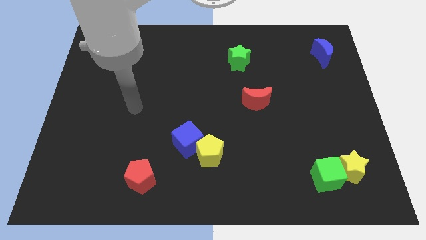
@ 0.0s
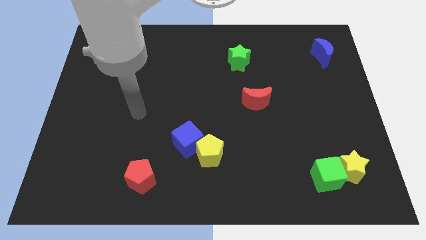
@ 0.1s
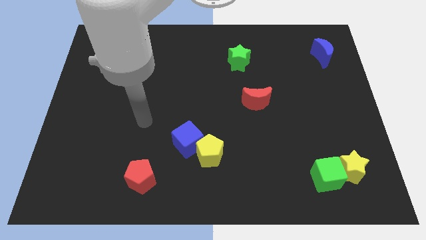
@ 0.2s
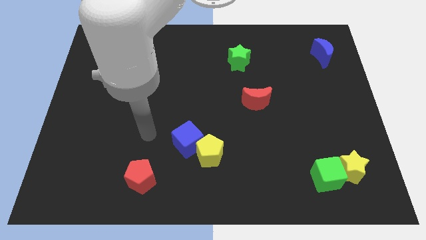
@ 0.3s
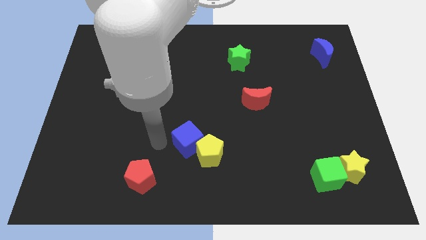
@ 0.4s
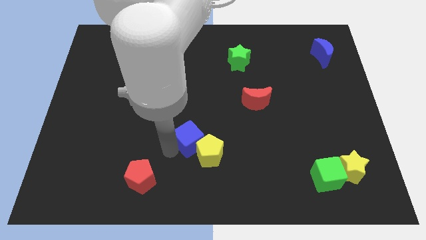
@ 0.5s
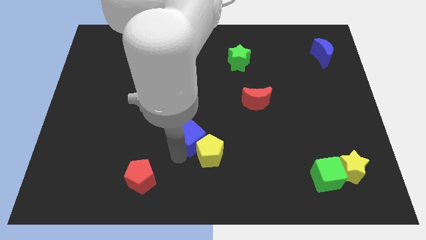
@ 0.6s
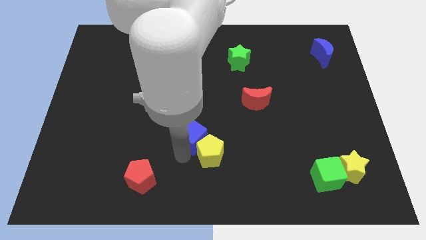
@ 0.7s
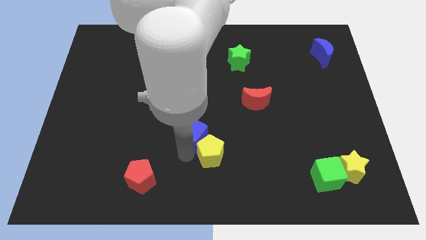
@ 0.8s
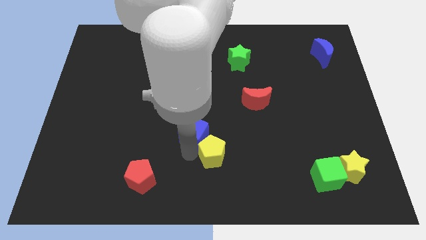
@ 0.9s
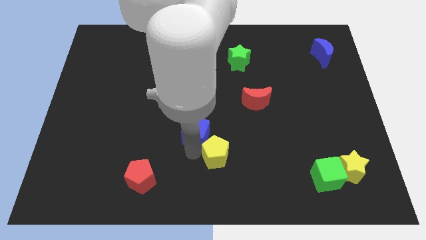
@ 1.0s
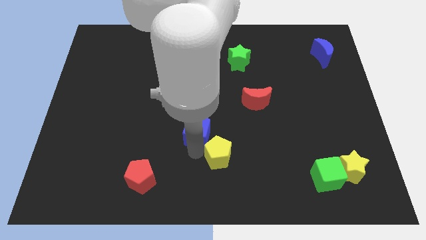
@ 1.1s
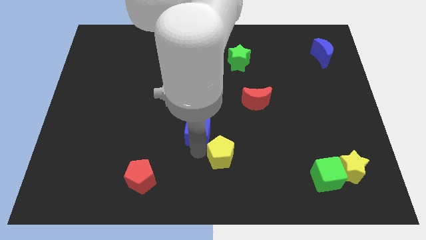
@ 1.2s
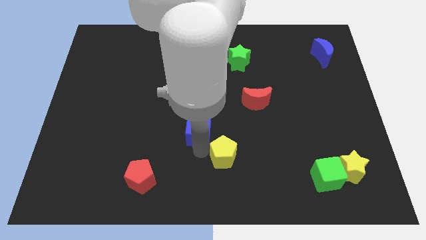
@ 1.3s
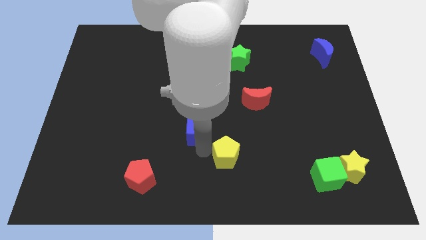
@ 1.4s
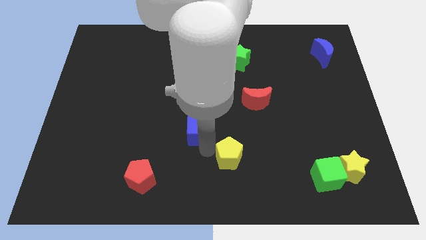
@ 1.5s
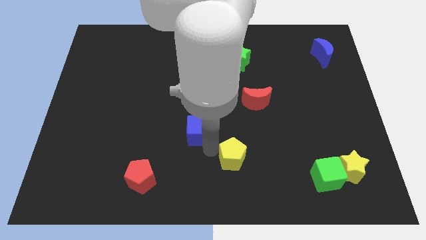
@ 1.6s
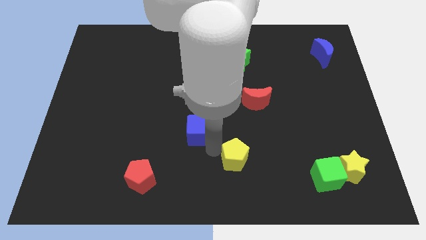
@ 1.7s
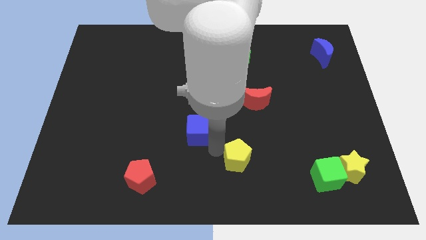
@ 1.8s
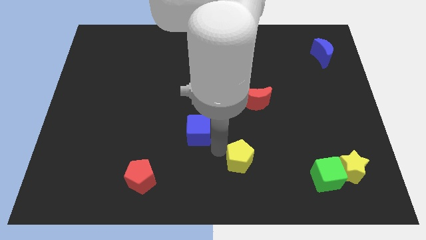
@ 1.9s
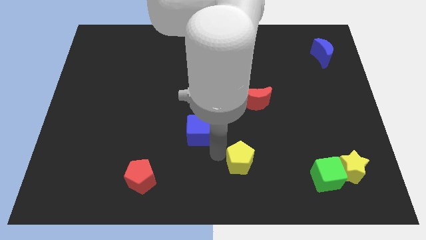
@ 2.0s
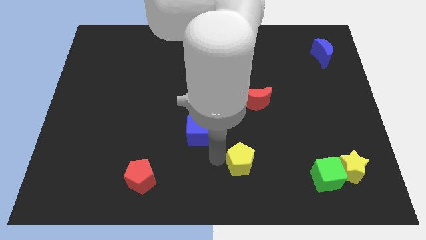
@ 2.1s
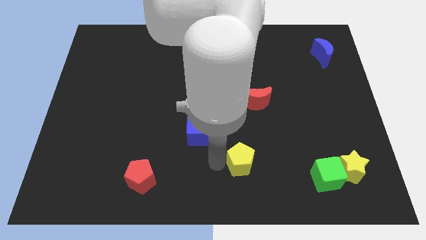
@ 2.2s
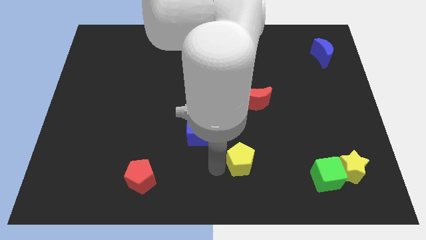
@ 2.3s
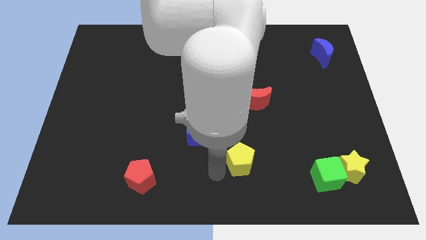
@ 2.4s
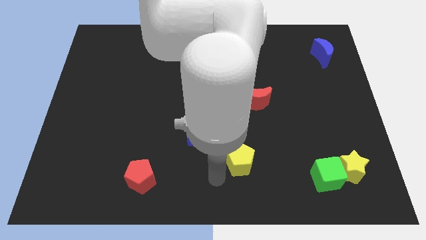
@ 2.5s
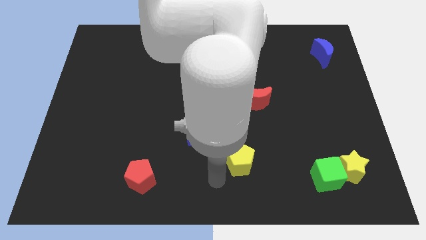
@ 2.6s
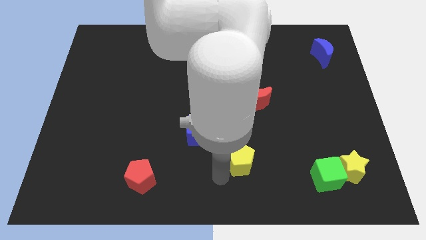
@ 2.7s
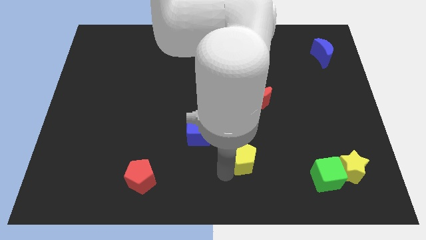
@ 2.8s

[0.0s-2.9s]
push the yellow pentagon to the right somewhat

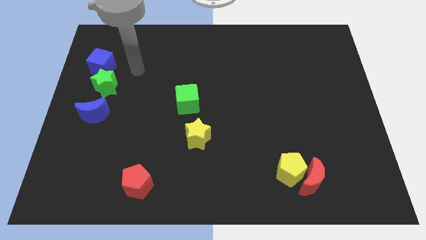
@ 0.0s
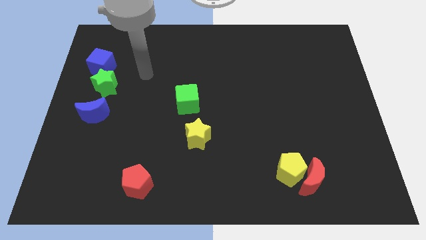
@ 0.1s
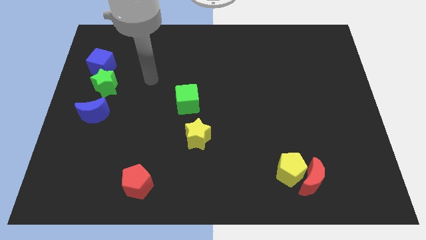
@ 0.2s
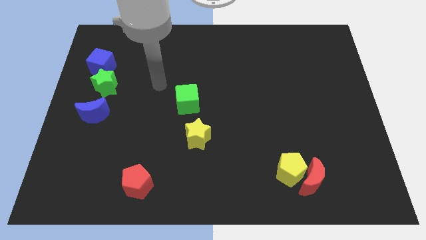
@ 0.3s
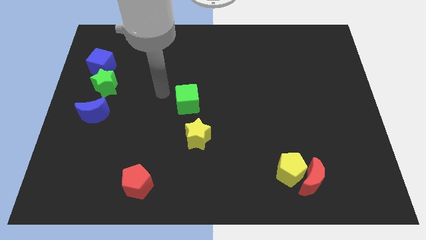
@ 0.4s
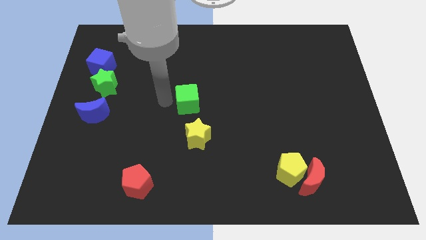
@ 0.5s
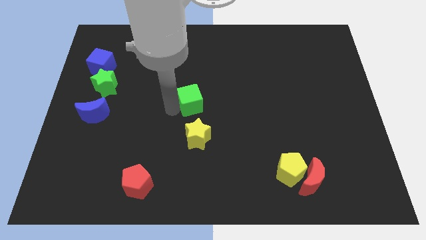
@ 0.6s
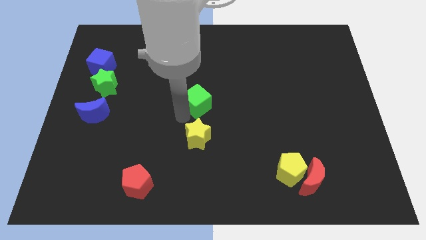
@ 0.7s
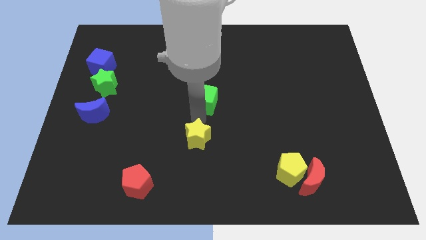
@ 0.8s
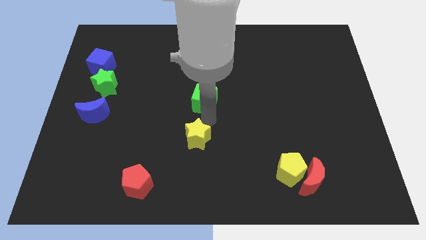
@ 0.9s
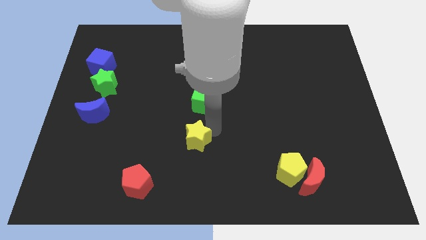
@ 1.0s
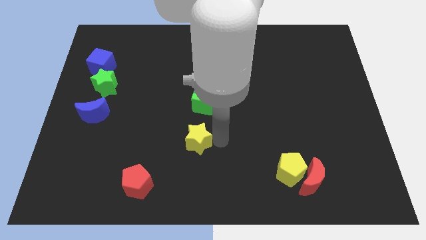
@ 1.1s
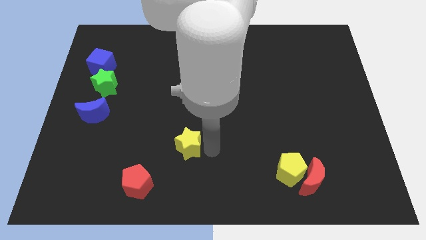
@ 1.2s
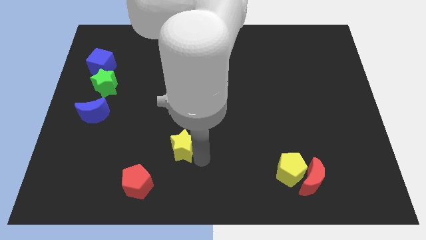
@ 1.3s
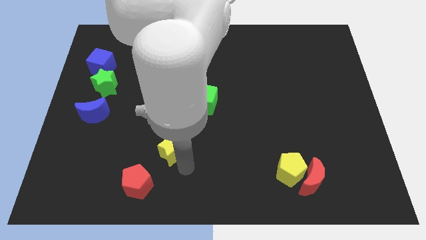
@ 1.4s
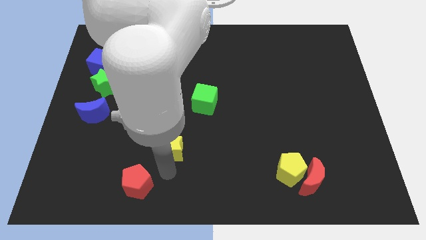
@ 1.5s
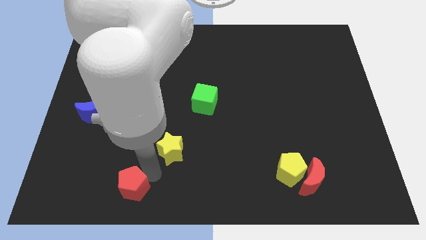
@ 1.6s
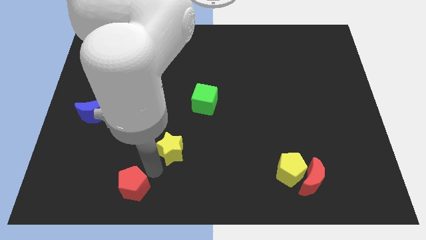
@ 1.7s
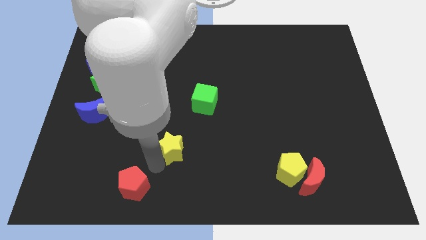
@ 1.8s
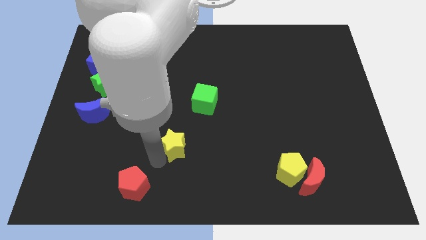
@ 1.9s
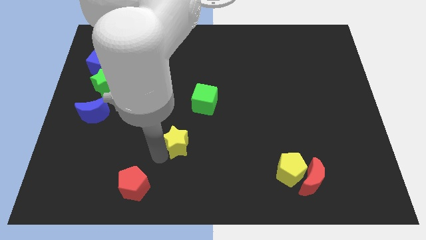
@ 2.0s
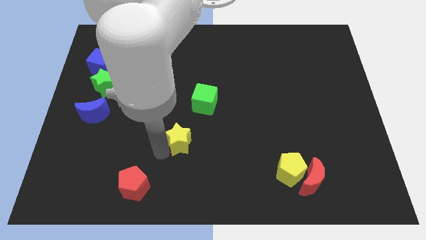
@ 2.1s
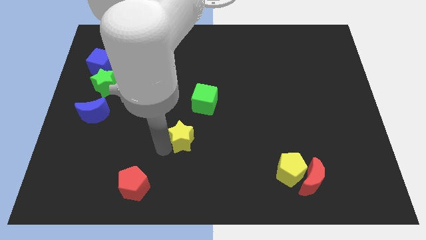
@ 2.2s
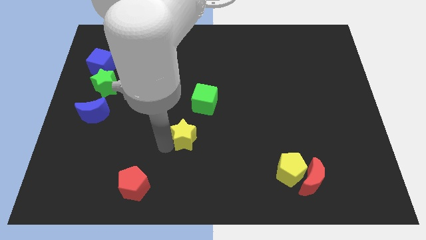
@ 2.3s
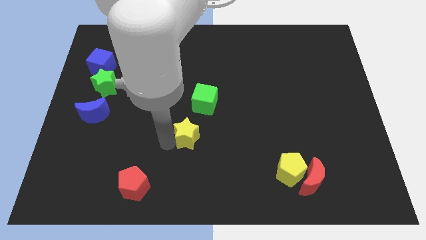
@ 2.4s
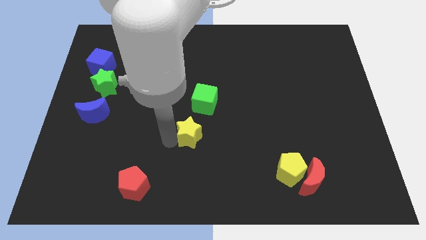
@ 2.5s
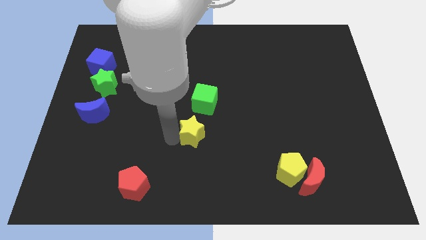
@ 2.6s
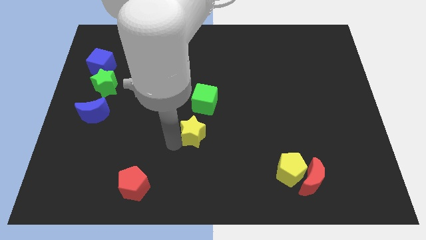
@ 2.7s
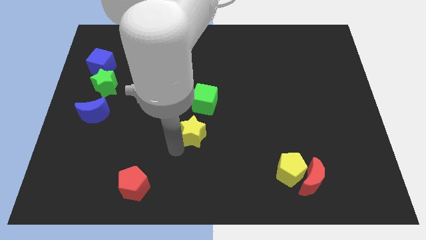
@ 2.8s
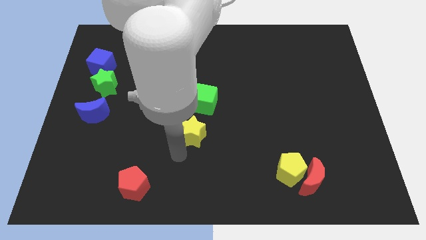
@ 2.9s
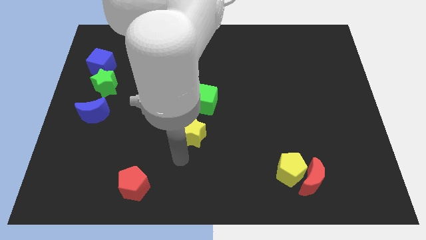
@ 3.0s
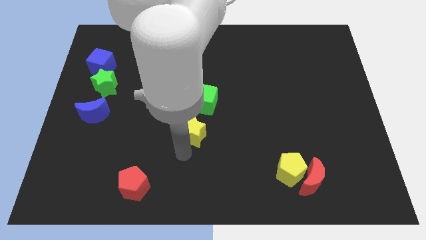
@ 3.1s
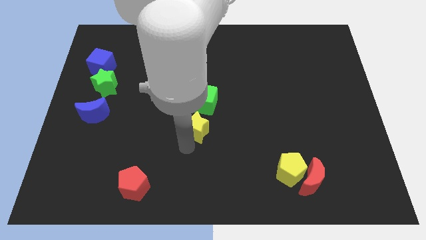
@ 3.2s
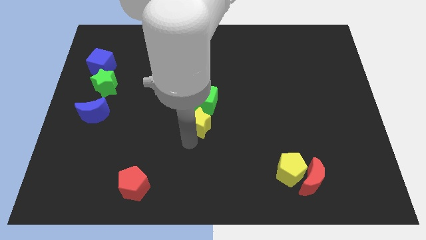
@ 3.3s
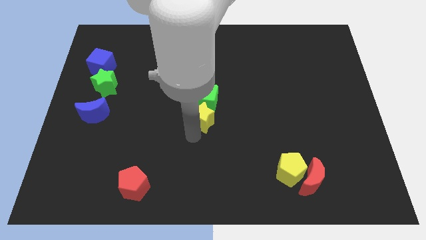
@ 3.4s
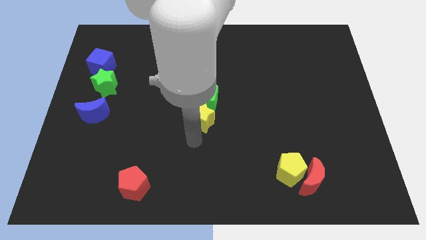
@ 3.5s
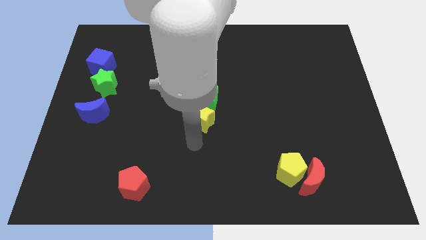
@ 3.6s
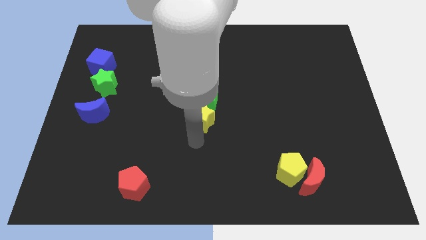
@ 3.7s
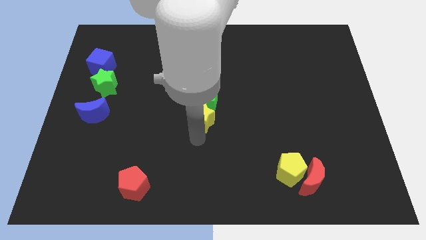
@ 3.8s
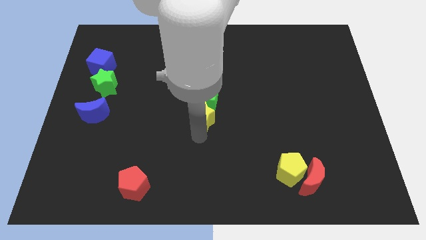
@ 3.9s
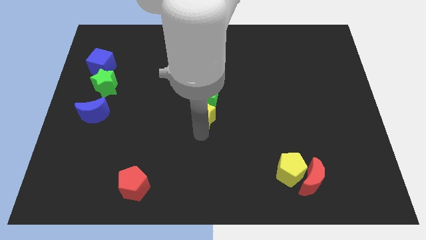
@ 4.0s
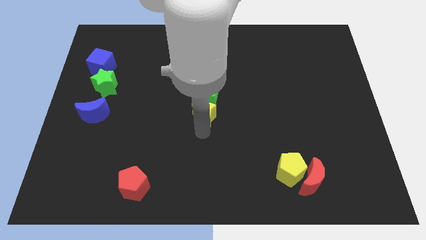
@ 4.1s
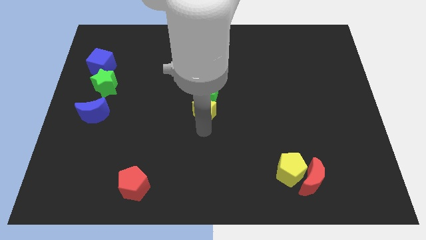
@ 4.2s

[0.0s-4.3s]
move the yellow star a bit up

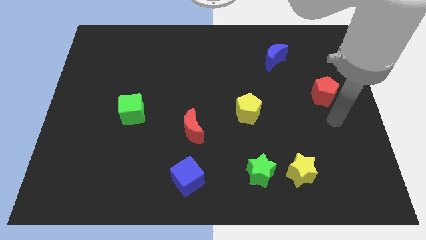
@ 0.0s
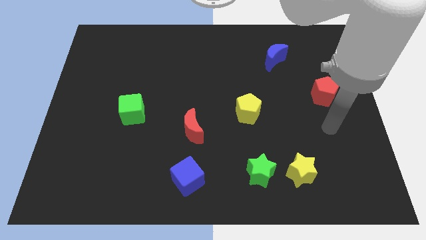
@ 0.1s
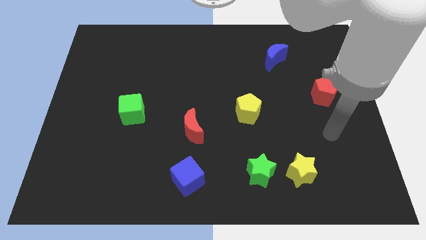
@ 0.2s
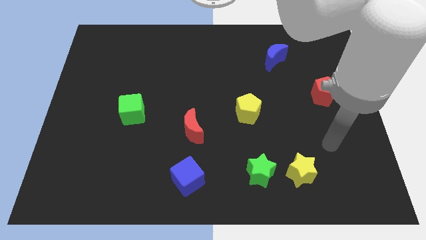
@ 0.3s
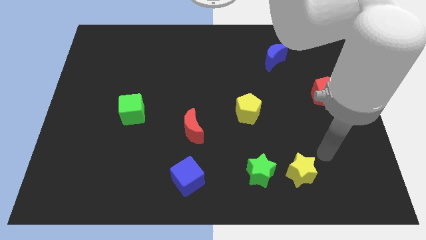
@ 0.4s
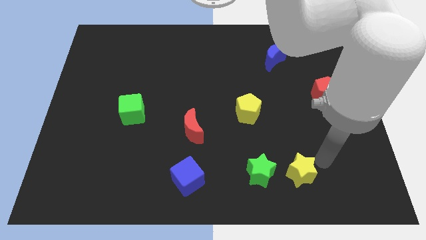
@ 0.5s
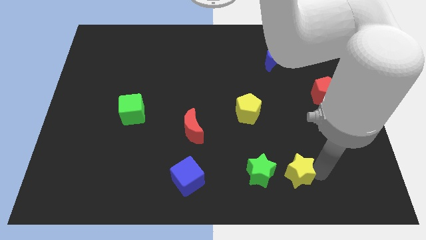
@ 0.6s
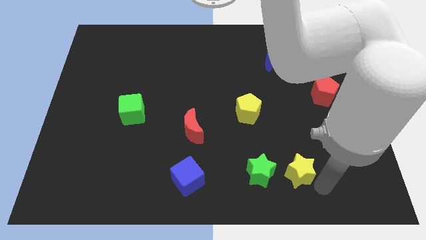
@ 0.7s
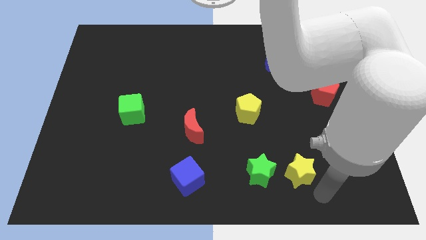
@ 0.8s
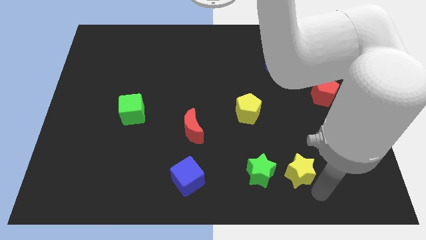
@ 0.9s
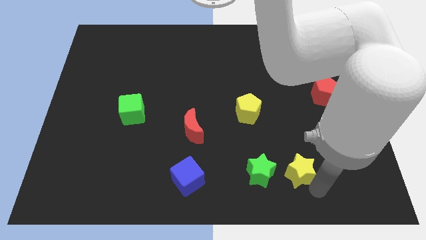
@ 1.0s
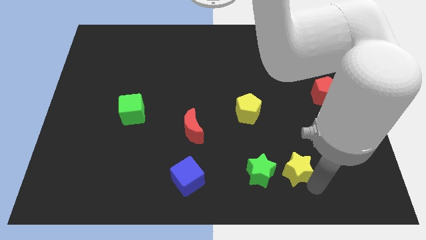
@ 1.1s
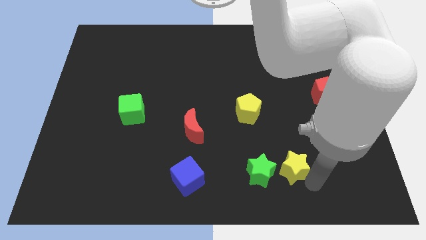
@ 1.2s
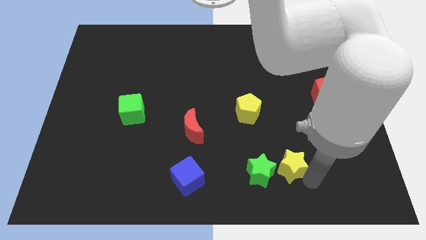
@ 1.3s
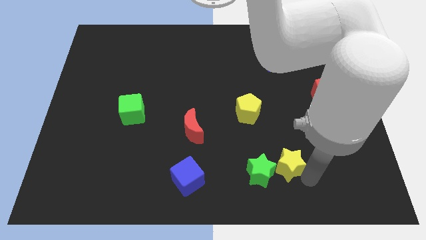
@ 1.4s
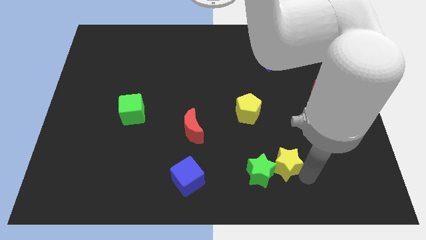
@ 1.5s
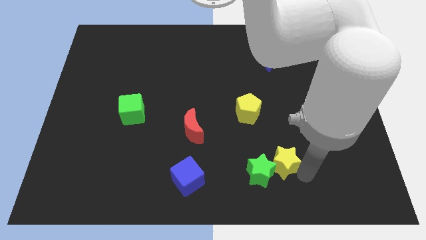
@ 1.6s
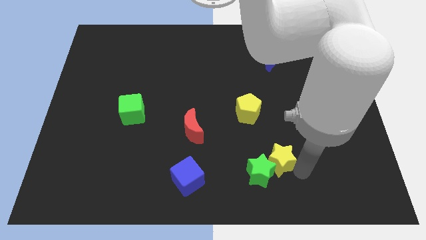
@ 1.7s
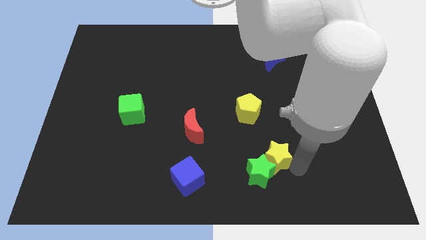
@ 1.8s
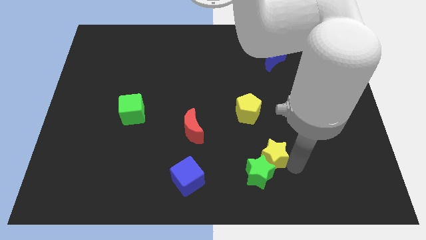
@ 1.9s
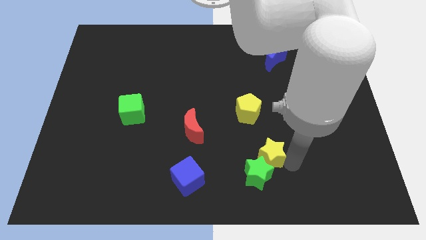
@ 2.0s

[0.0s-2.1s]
slightly move the yellow star upwards and left diagonally
